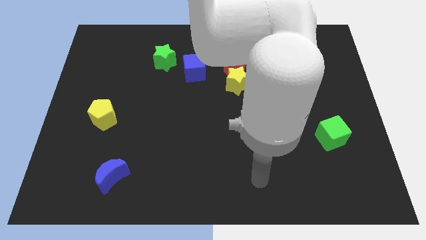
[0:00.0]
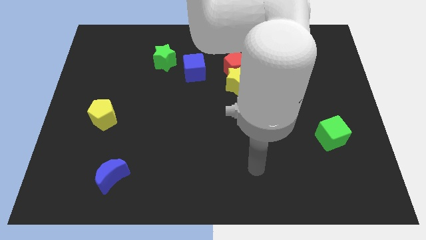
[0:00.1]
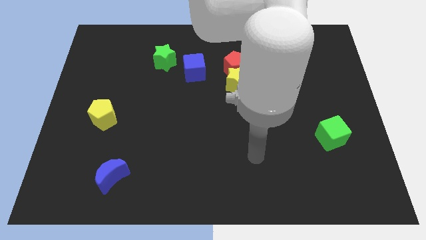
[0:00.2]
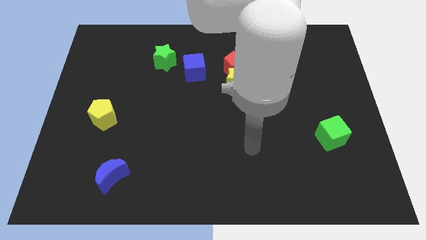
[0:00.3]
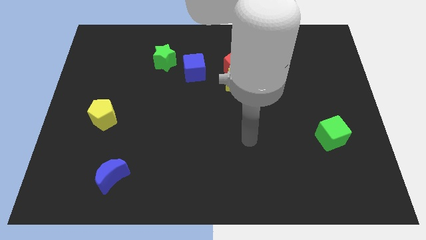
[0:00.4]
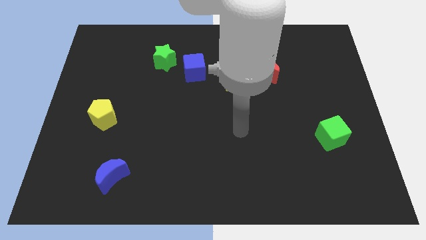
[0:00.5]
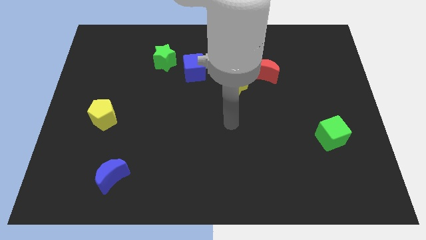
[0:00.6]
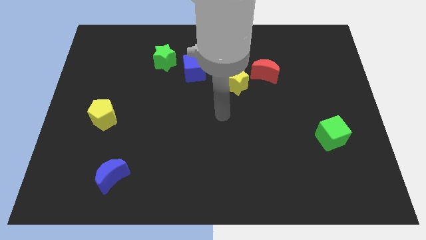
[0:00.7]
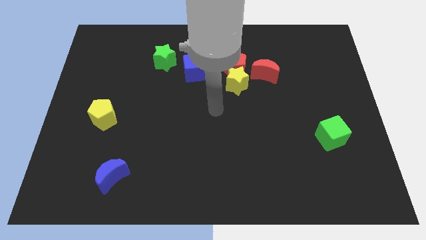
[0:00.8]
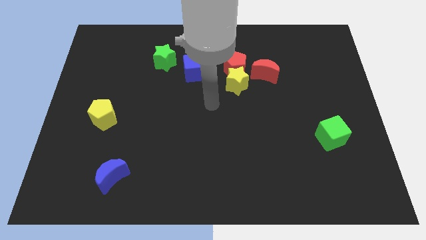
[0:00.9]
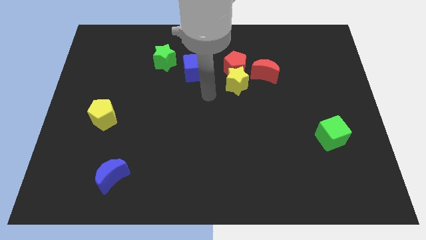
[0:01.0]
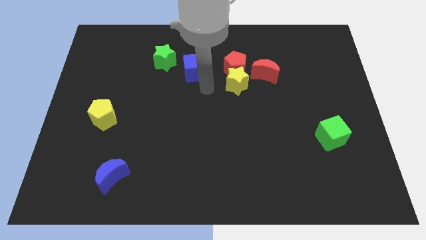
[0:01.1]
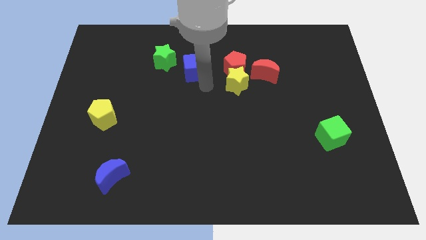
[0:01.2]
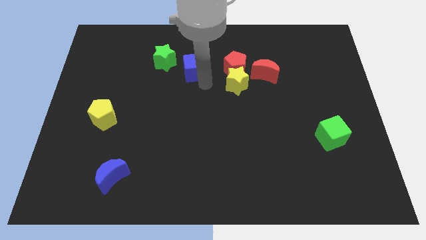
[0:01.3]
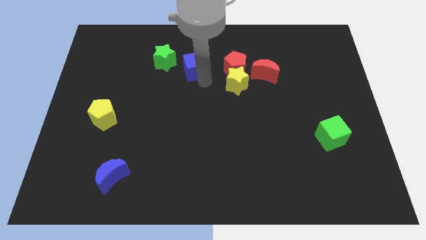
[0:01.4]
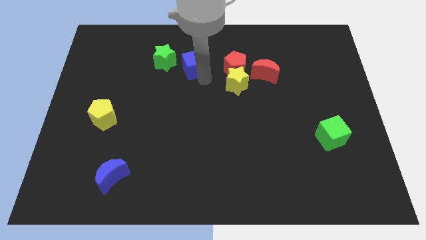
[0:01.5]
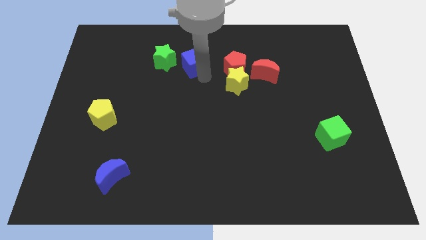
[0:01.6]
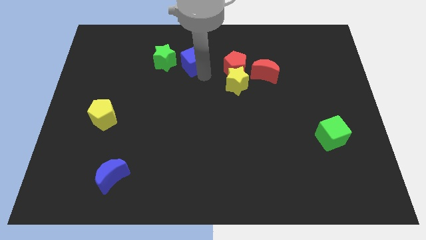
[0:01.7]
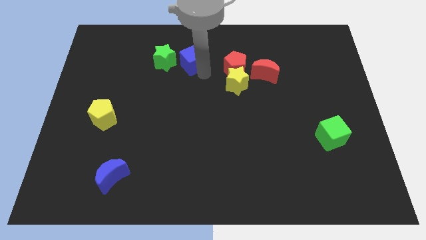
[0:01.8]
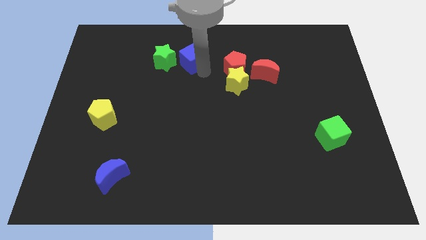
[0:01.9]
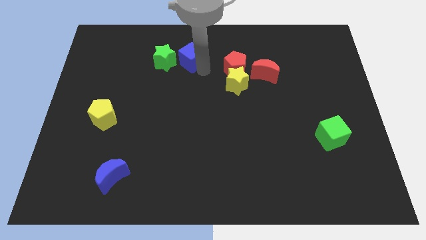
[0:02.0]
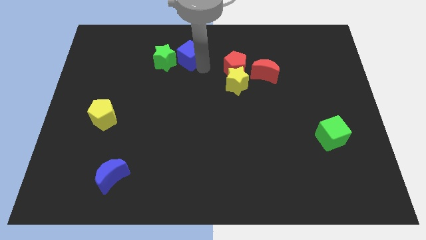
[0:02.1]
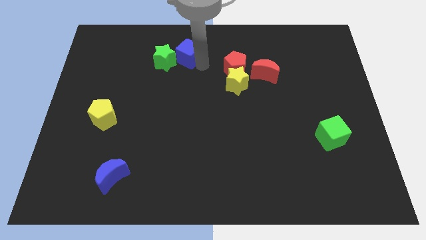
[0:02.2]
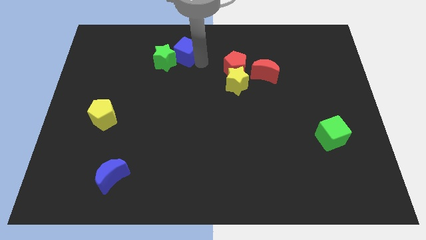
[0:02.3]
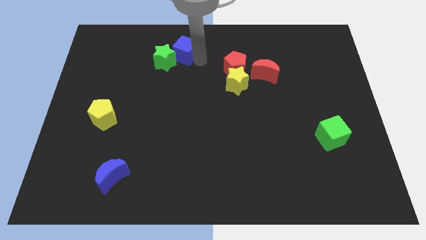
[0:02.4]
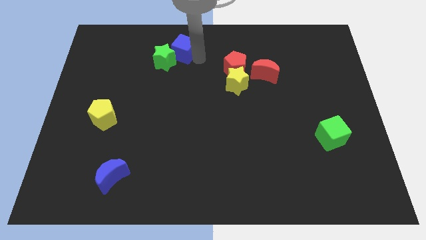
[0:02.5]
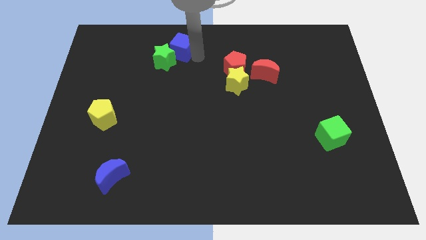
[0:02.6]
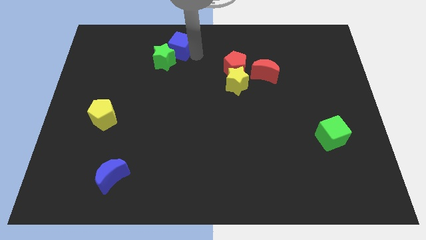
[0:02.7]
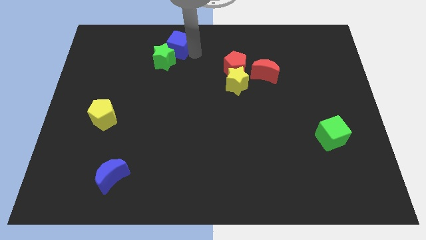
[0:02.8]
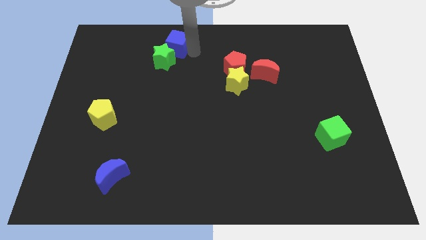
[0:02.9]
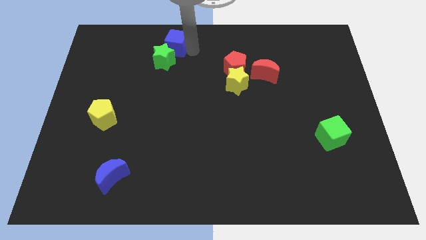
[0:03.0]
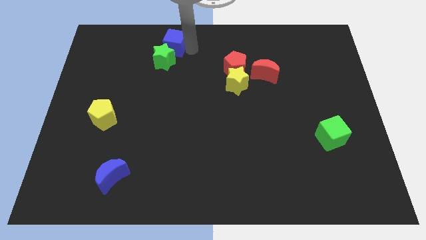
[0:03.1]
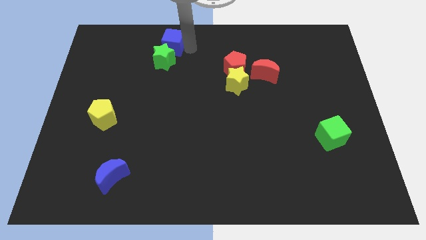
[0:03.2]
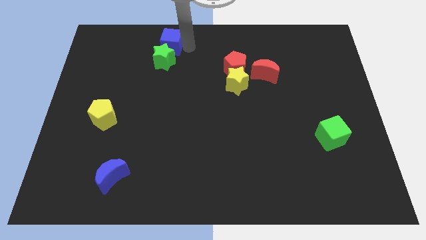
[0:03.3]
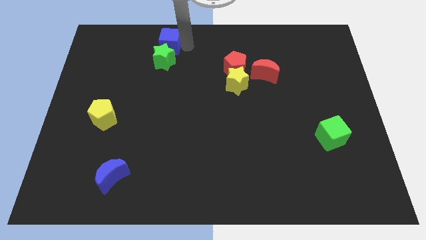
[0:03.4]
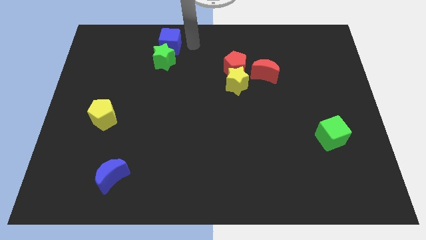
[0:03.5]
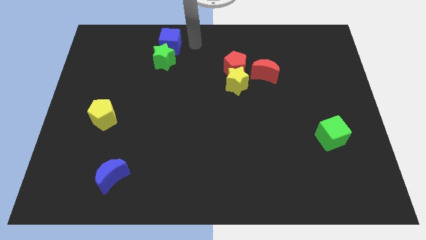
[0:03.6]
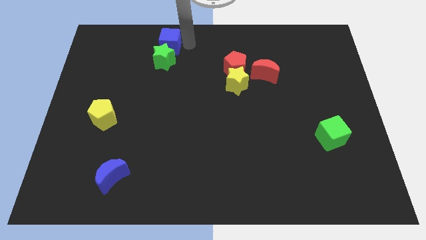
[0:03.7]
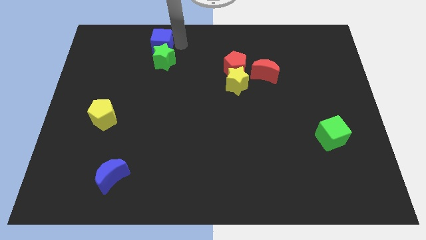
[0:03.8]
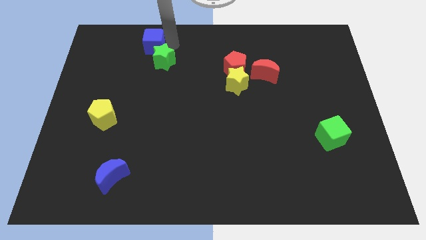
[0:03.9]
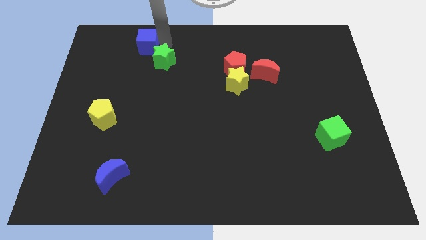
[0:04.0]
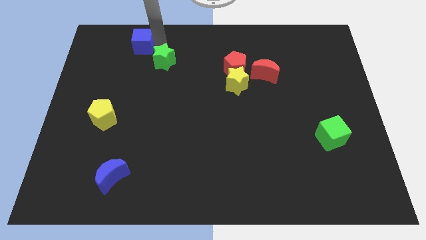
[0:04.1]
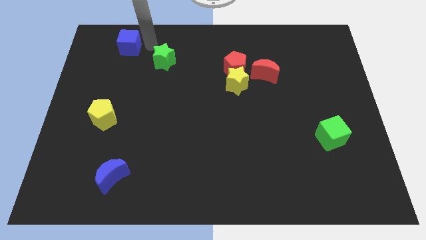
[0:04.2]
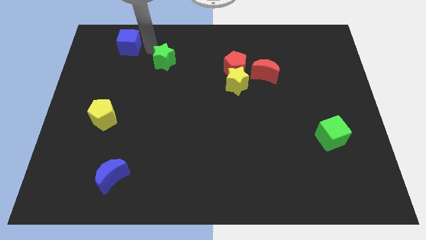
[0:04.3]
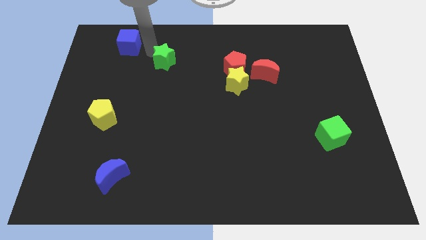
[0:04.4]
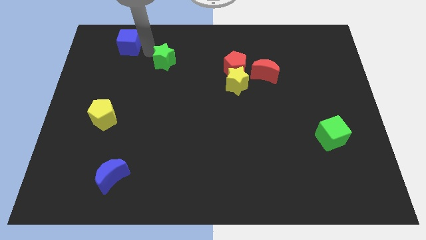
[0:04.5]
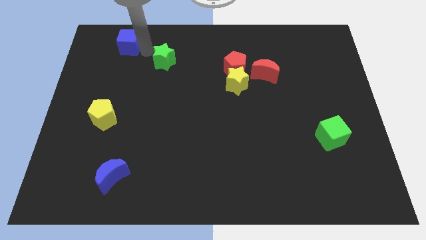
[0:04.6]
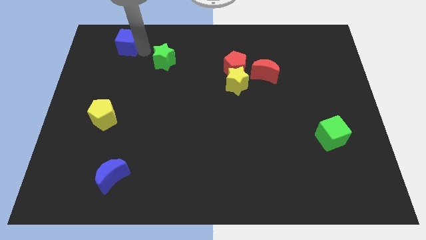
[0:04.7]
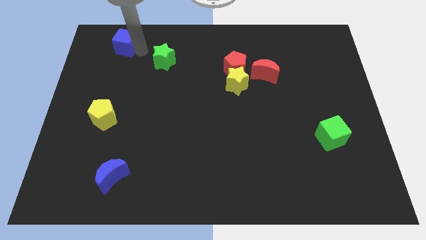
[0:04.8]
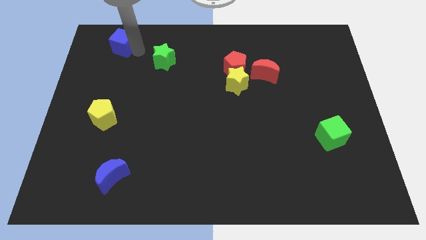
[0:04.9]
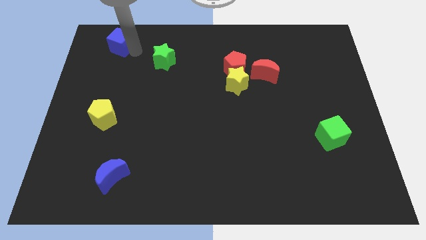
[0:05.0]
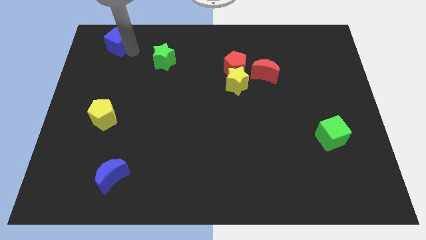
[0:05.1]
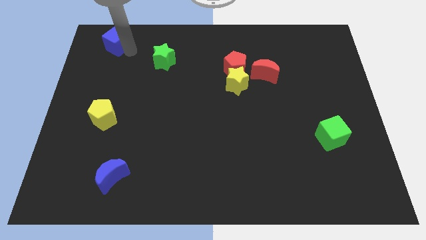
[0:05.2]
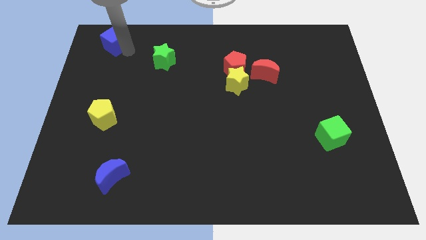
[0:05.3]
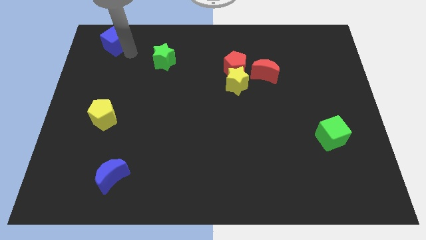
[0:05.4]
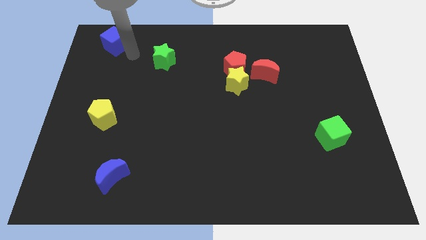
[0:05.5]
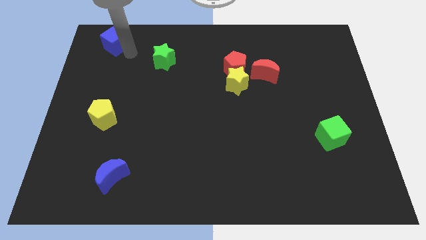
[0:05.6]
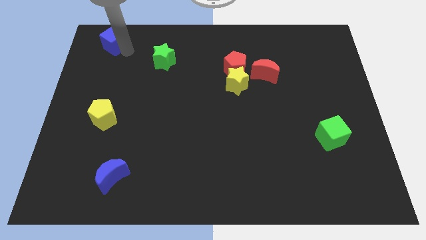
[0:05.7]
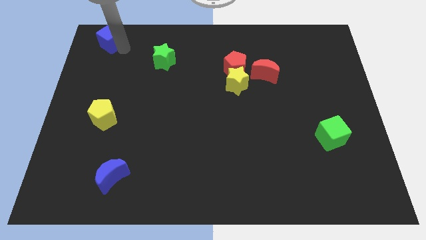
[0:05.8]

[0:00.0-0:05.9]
put the blue cube to the top left
